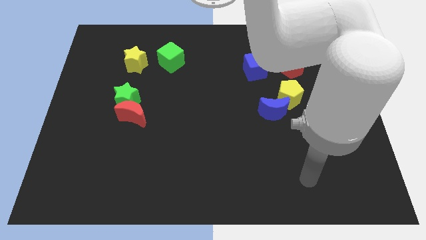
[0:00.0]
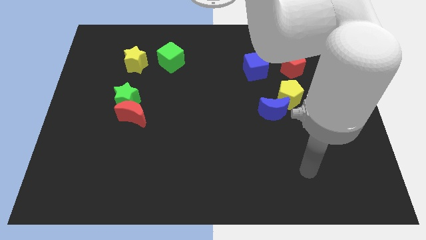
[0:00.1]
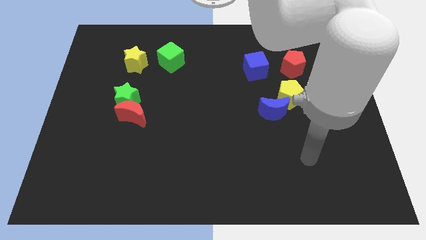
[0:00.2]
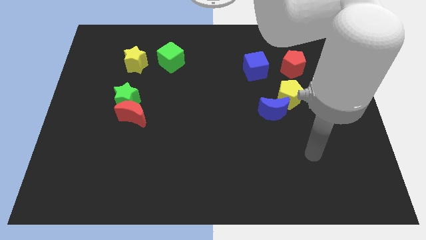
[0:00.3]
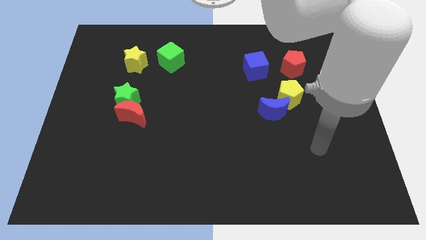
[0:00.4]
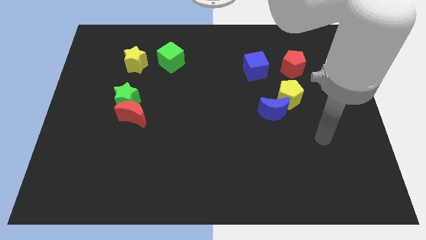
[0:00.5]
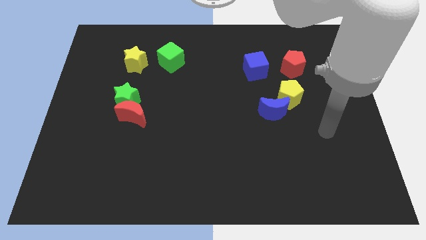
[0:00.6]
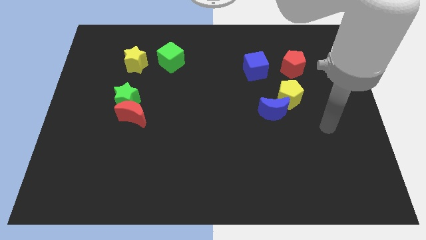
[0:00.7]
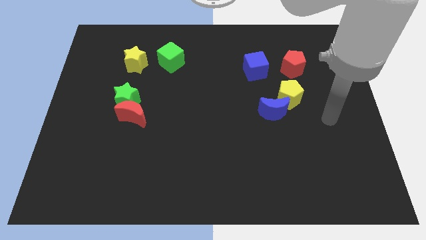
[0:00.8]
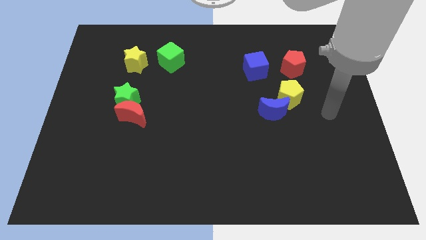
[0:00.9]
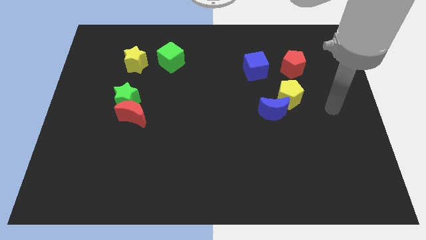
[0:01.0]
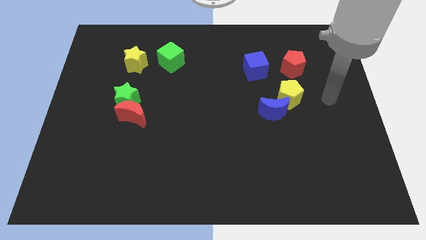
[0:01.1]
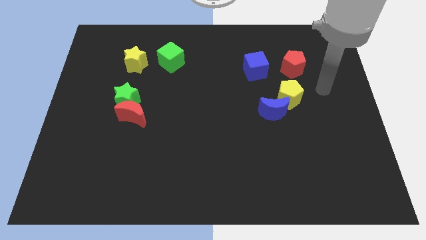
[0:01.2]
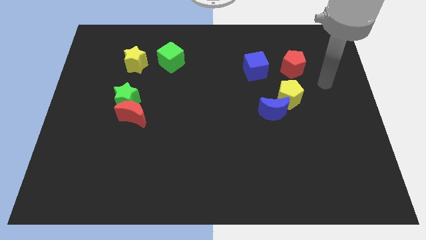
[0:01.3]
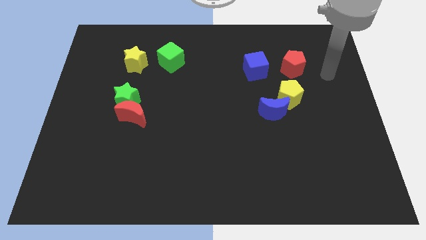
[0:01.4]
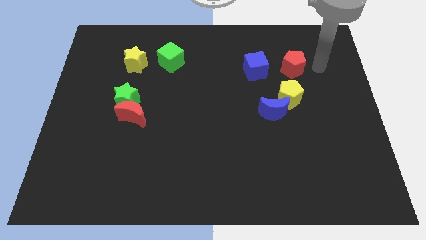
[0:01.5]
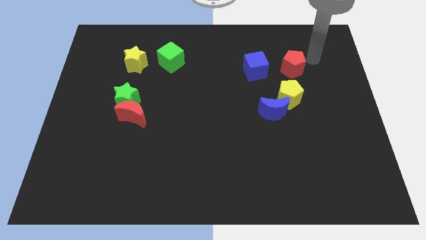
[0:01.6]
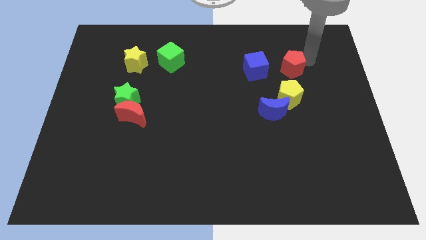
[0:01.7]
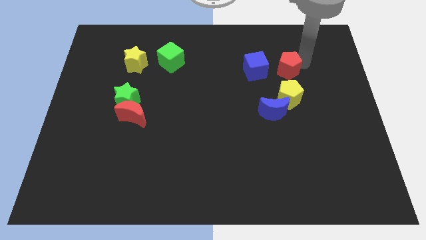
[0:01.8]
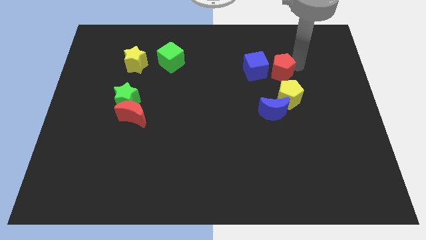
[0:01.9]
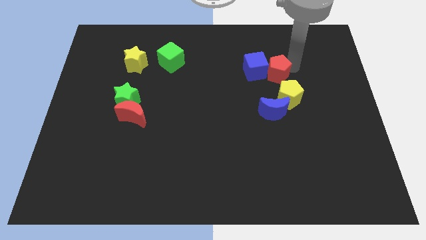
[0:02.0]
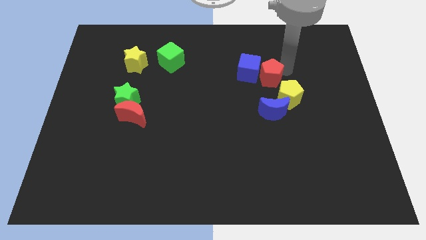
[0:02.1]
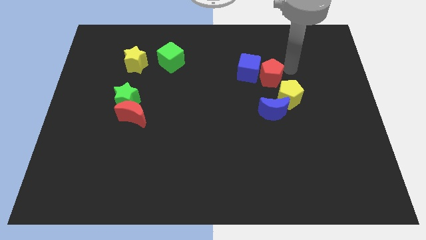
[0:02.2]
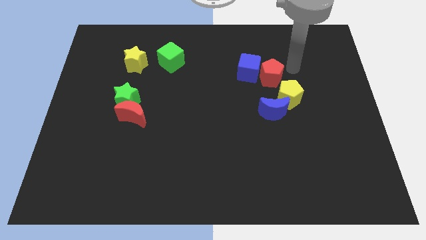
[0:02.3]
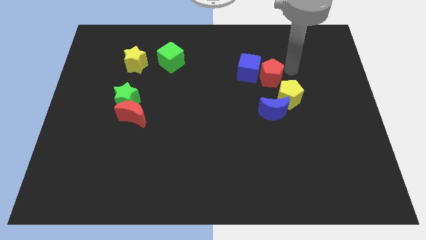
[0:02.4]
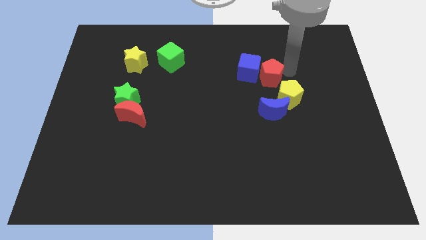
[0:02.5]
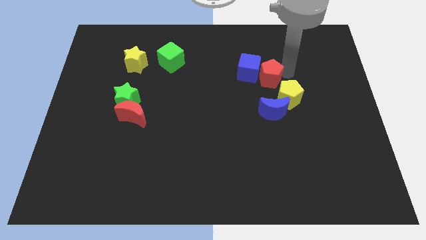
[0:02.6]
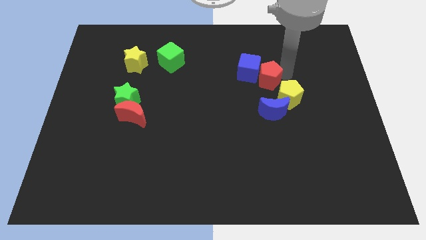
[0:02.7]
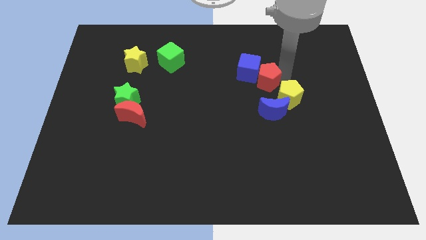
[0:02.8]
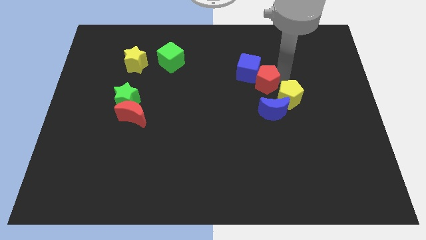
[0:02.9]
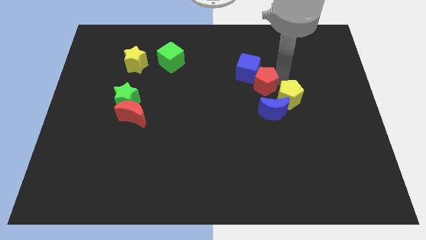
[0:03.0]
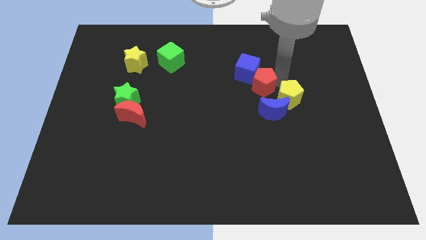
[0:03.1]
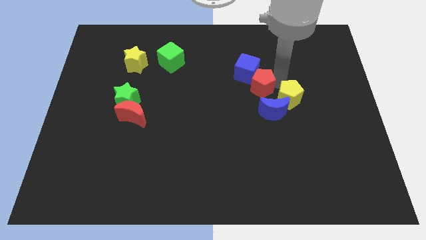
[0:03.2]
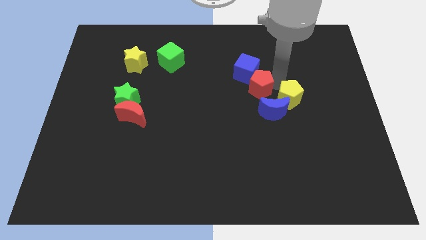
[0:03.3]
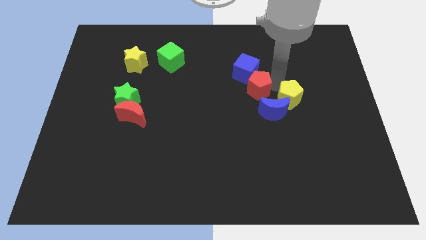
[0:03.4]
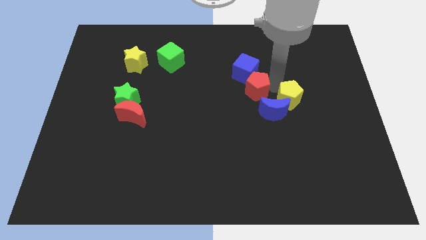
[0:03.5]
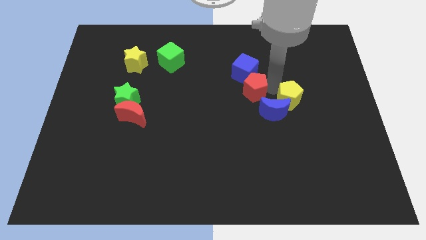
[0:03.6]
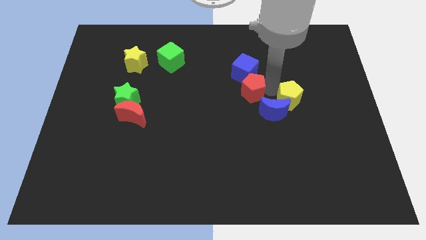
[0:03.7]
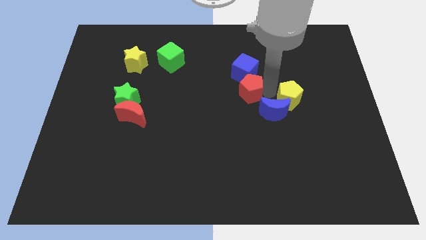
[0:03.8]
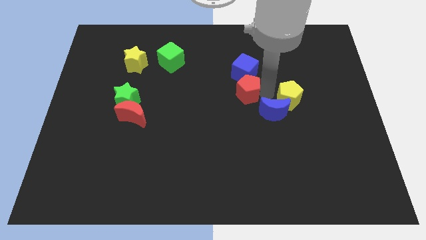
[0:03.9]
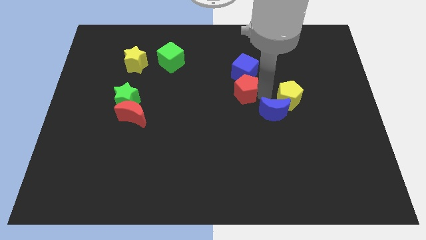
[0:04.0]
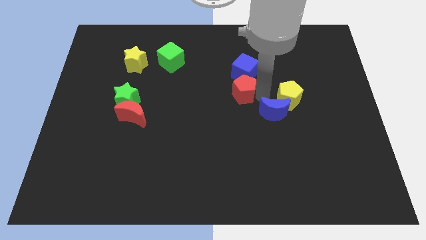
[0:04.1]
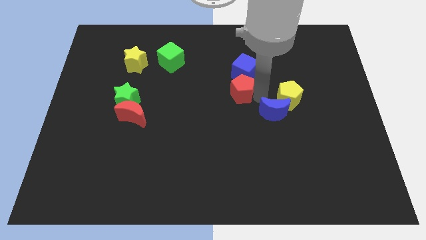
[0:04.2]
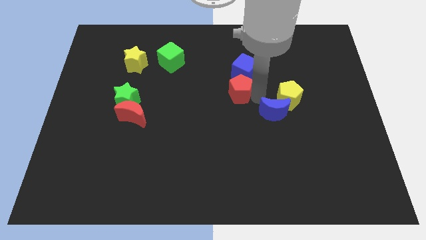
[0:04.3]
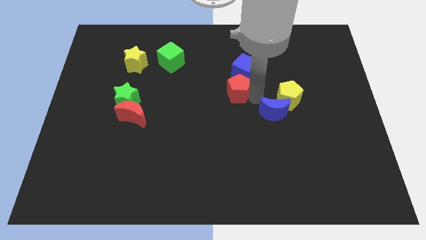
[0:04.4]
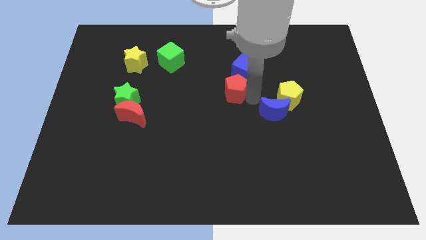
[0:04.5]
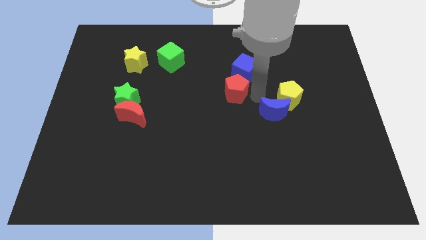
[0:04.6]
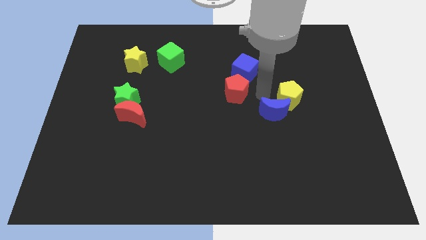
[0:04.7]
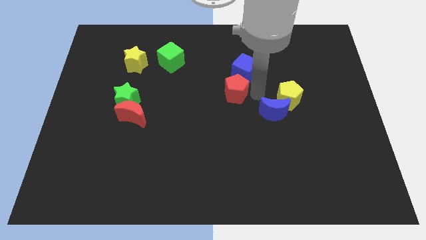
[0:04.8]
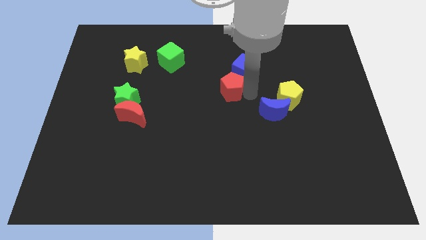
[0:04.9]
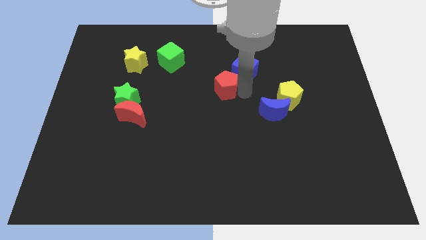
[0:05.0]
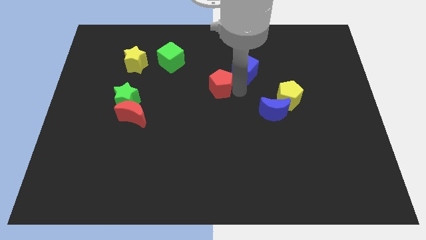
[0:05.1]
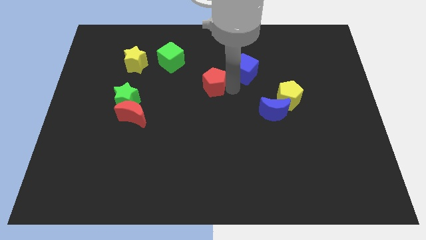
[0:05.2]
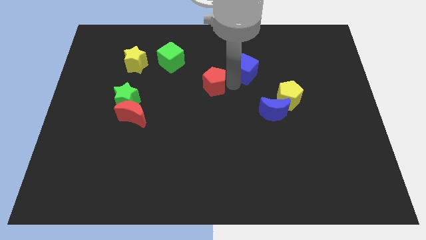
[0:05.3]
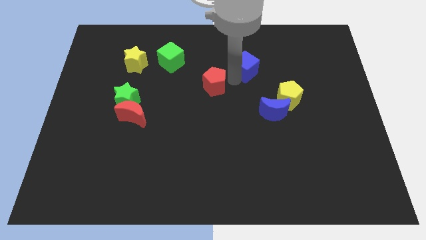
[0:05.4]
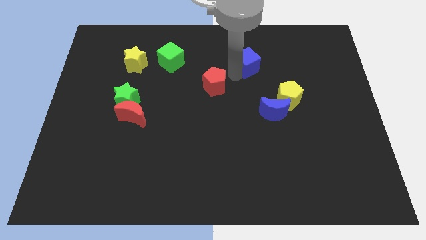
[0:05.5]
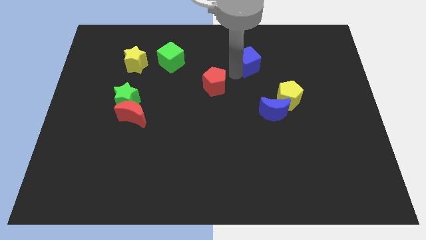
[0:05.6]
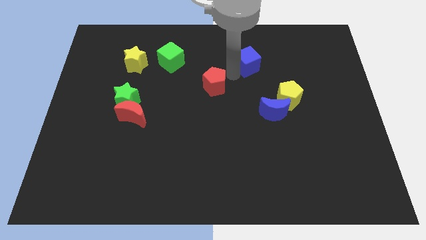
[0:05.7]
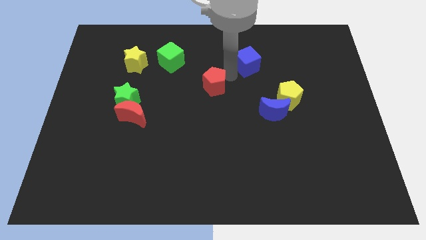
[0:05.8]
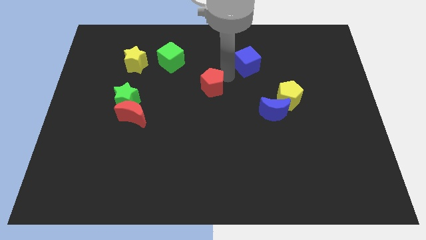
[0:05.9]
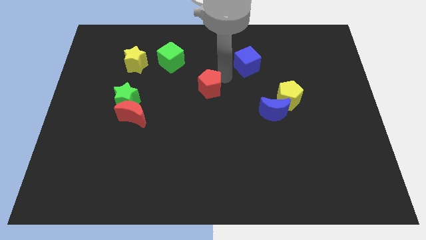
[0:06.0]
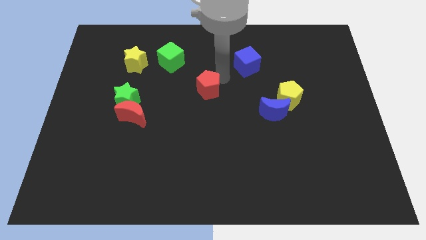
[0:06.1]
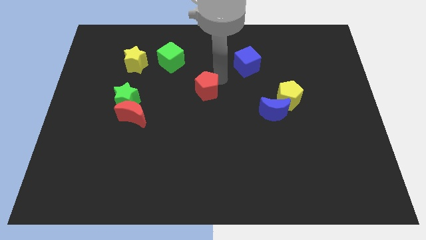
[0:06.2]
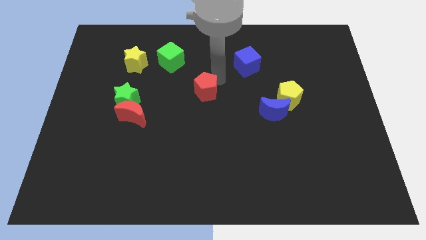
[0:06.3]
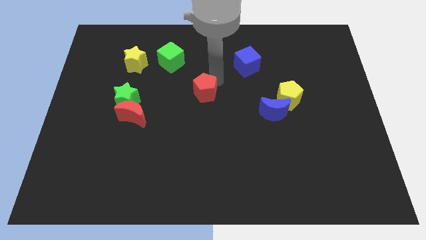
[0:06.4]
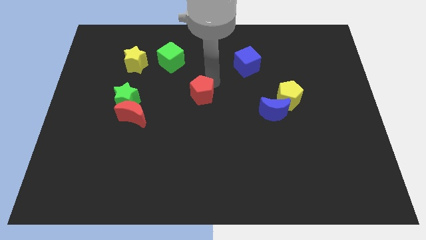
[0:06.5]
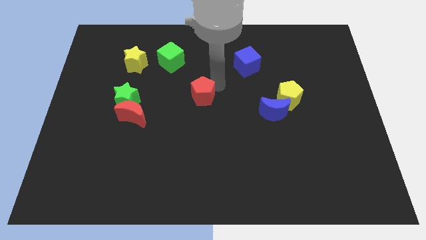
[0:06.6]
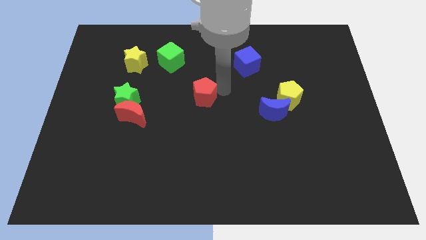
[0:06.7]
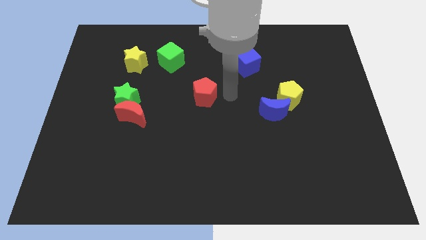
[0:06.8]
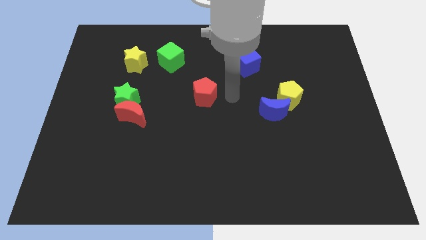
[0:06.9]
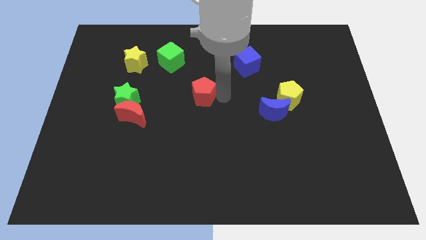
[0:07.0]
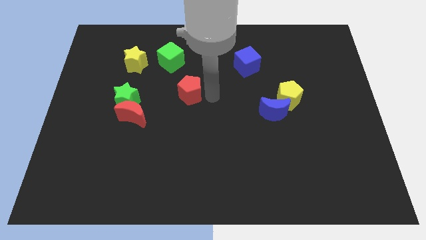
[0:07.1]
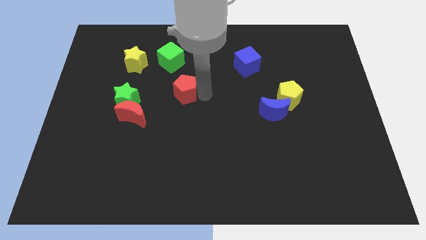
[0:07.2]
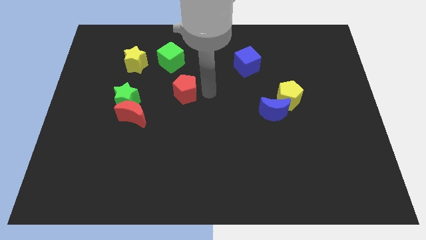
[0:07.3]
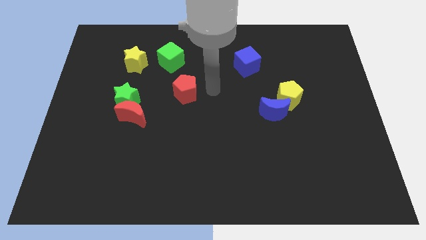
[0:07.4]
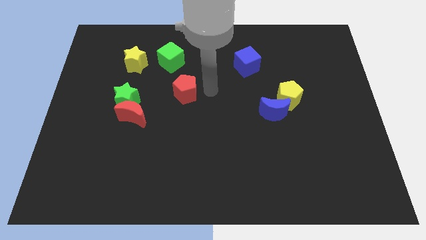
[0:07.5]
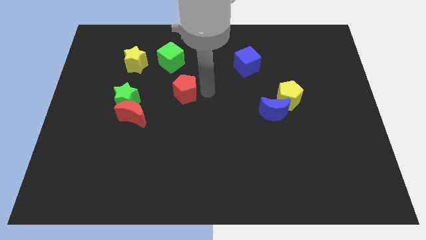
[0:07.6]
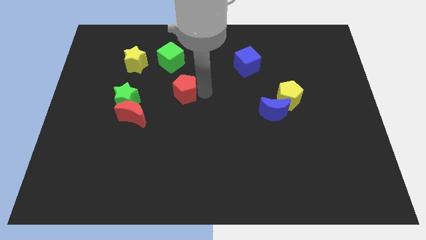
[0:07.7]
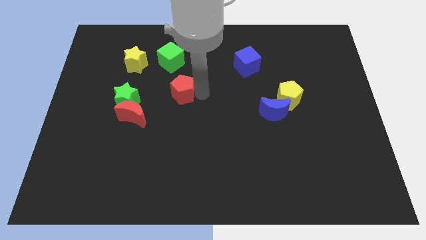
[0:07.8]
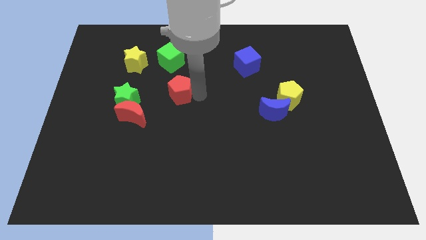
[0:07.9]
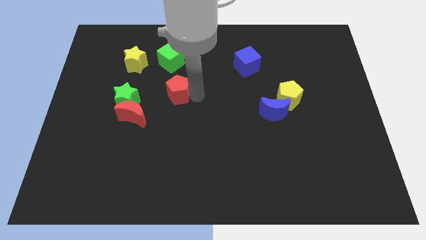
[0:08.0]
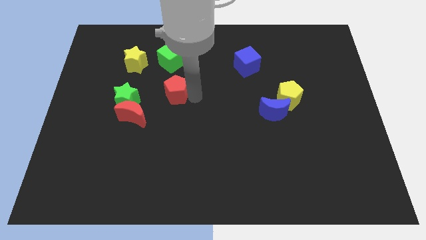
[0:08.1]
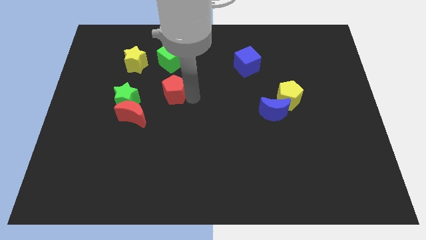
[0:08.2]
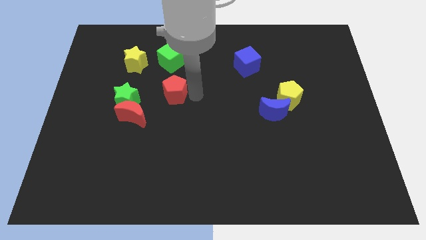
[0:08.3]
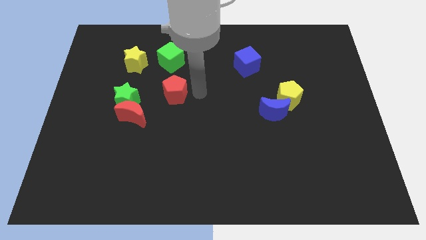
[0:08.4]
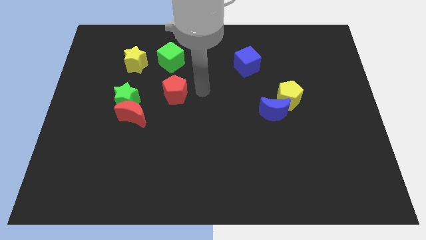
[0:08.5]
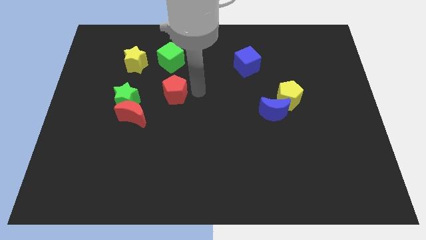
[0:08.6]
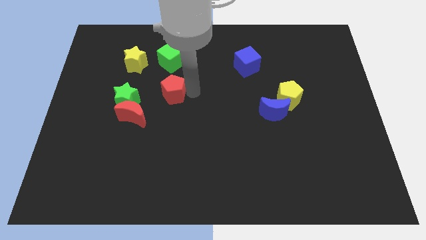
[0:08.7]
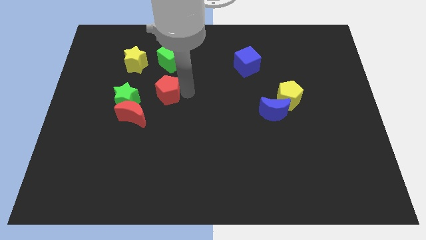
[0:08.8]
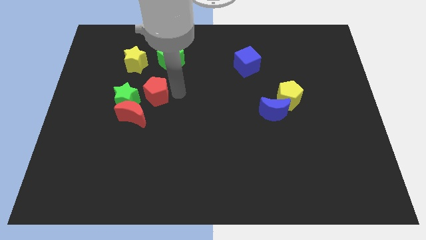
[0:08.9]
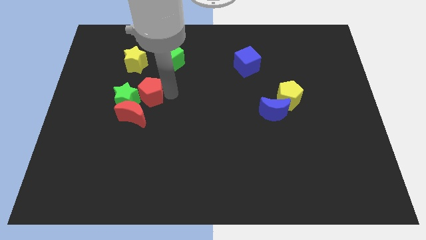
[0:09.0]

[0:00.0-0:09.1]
put the red pentagon next to the green star
